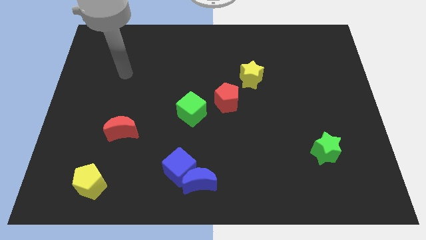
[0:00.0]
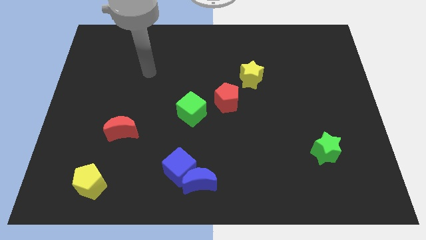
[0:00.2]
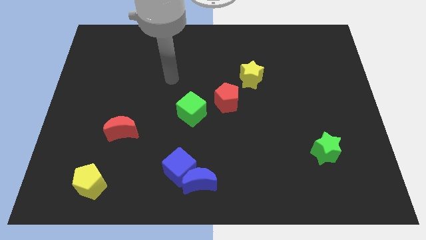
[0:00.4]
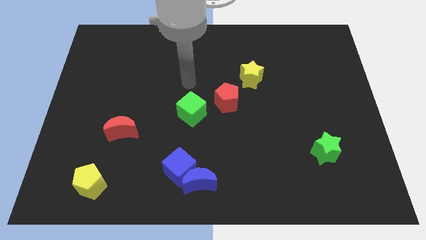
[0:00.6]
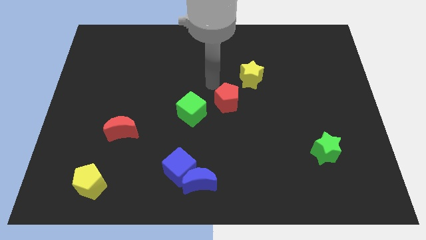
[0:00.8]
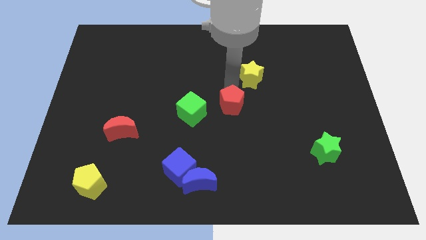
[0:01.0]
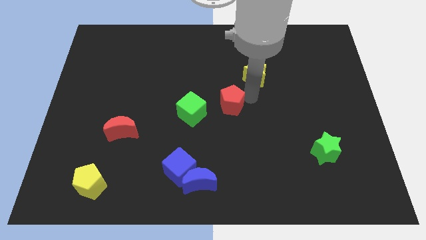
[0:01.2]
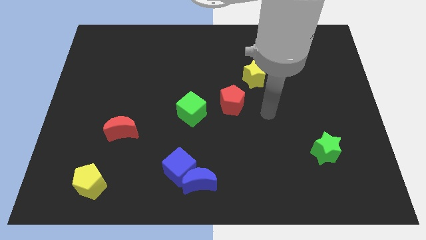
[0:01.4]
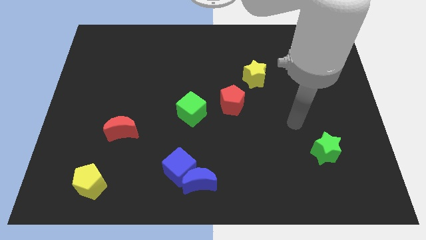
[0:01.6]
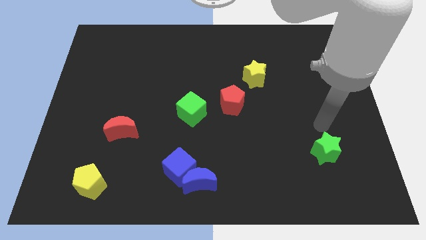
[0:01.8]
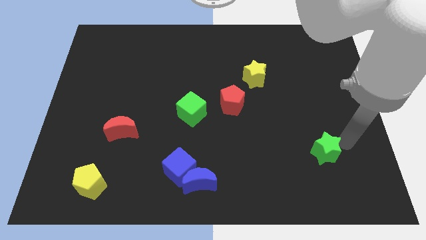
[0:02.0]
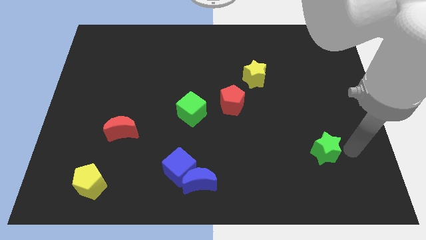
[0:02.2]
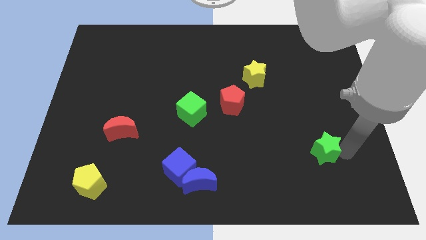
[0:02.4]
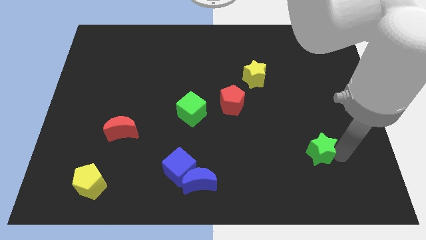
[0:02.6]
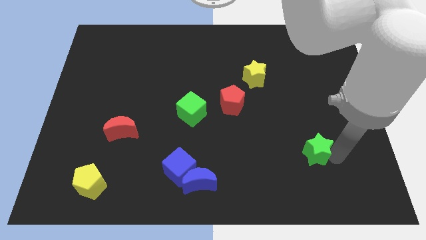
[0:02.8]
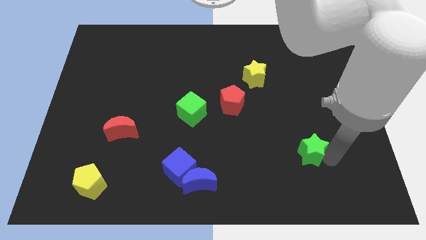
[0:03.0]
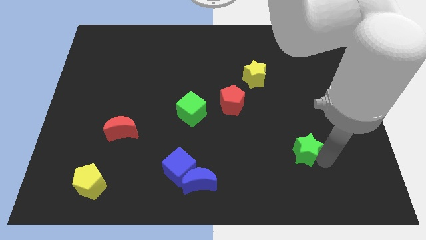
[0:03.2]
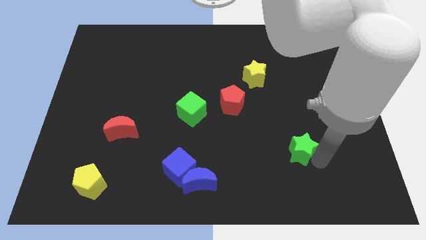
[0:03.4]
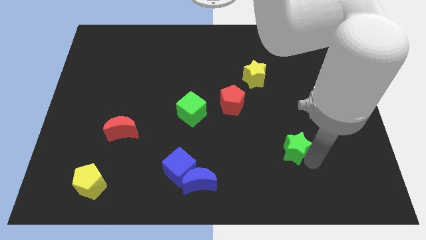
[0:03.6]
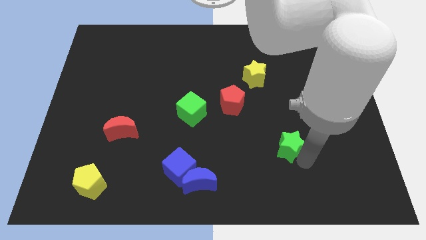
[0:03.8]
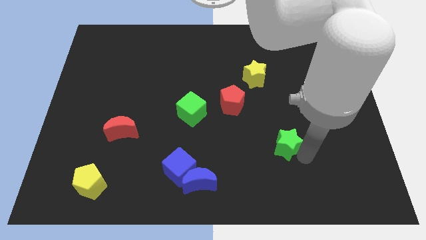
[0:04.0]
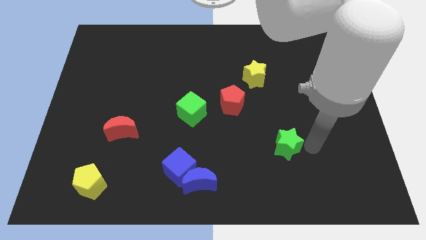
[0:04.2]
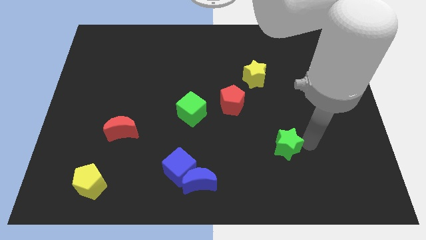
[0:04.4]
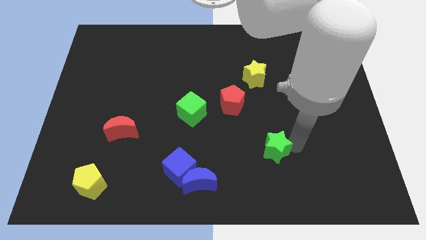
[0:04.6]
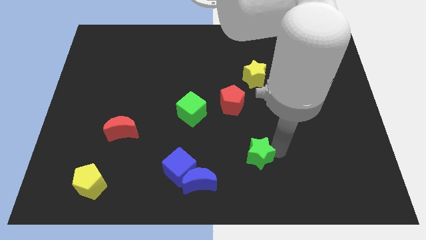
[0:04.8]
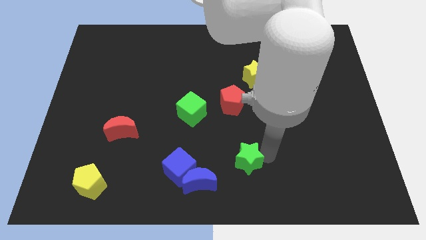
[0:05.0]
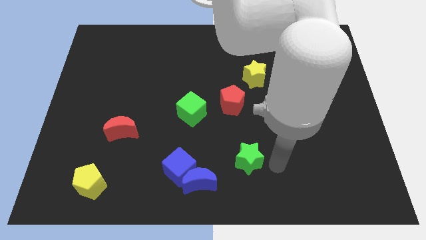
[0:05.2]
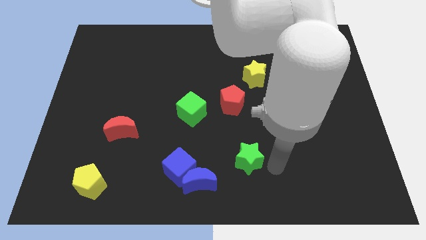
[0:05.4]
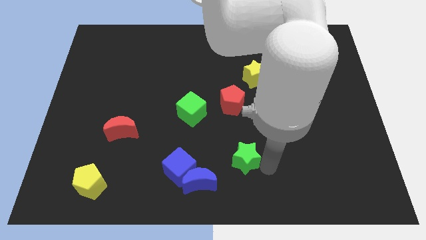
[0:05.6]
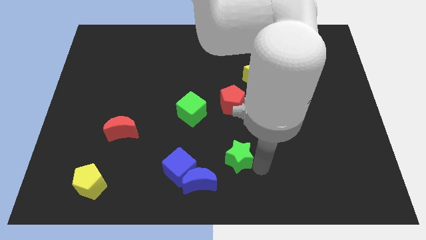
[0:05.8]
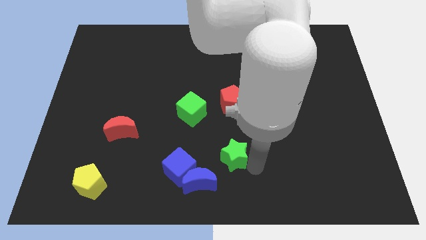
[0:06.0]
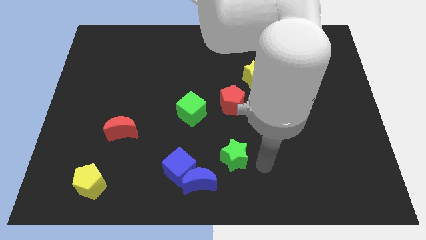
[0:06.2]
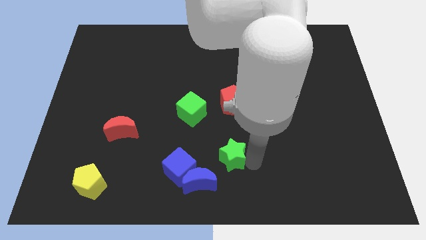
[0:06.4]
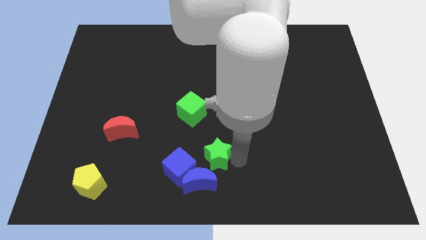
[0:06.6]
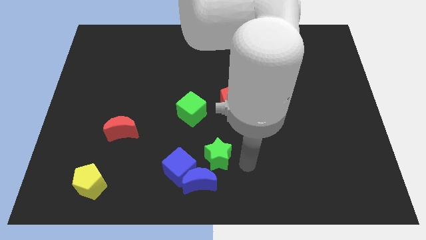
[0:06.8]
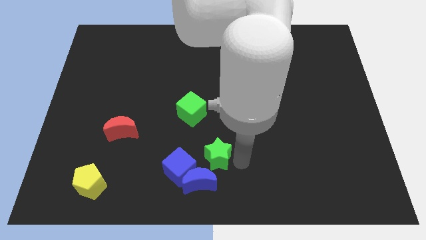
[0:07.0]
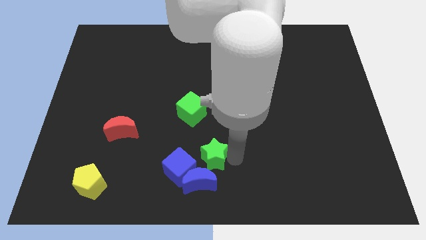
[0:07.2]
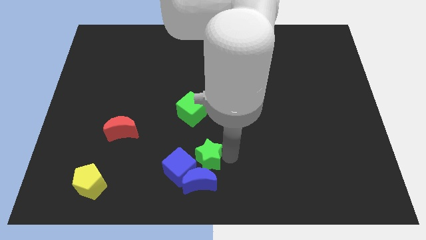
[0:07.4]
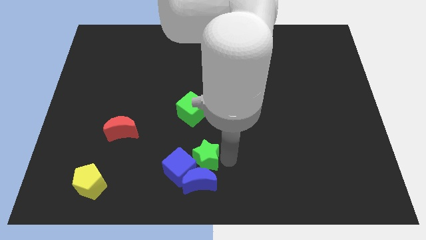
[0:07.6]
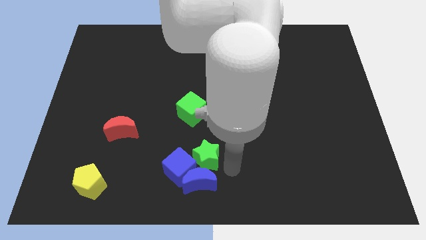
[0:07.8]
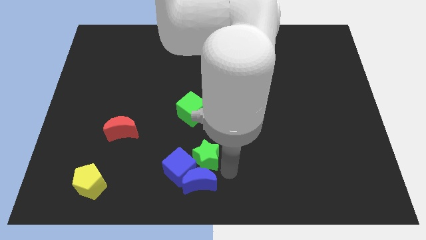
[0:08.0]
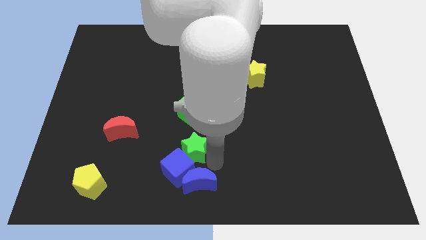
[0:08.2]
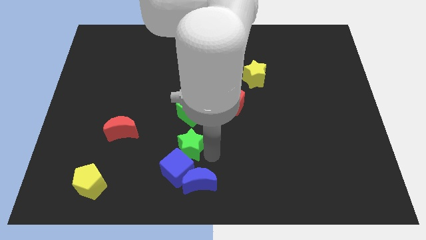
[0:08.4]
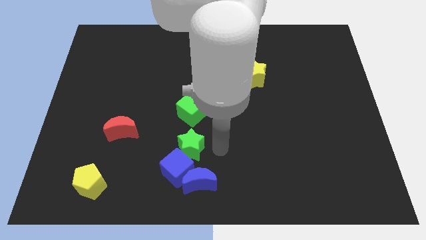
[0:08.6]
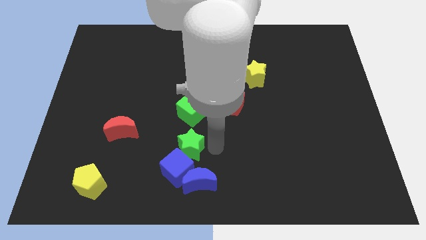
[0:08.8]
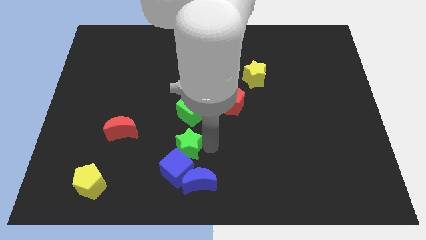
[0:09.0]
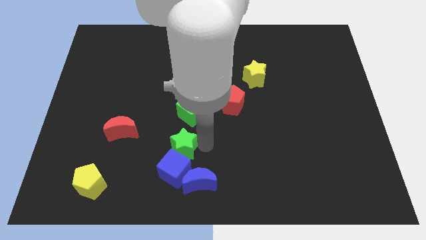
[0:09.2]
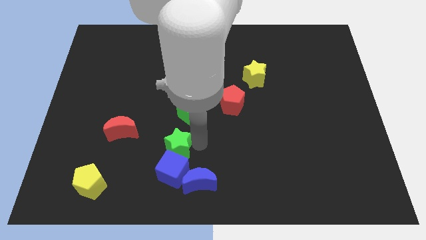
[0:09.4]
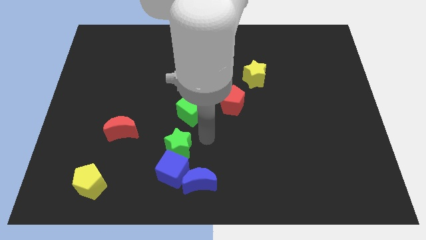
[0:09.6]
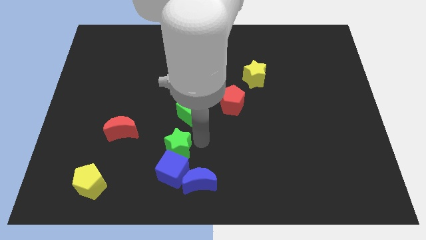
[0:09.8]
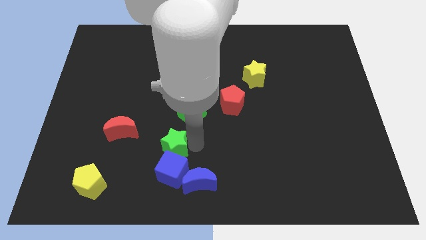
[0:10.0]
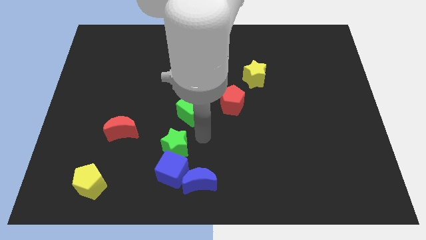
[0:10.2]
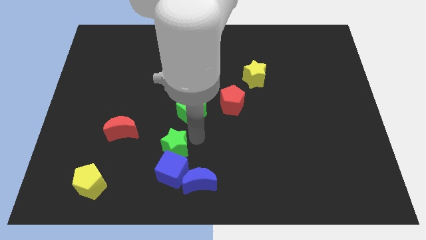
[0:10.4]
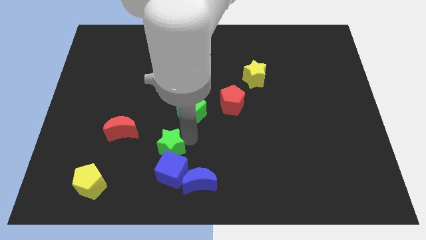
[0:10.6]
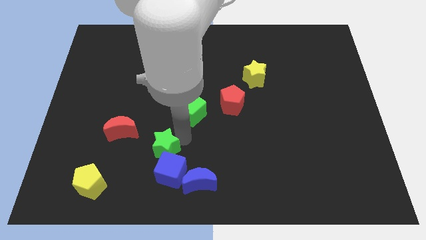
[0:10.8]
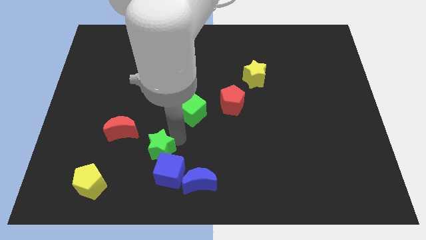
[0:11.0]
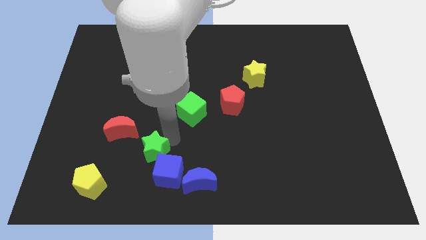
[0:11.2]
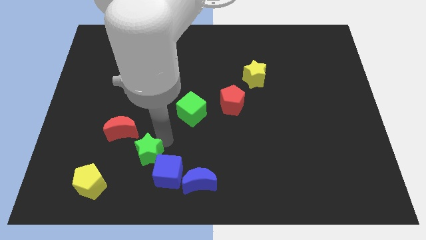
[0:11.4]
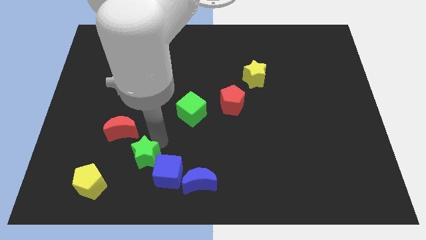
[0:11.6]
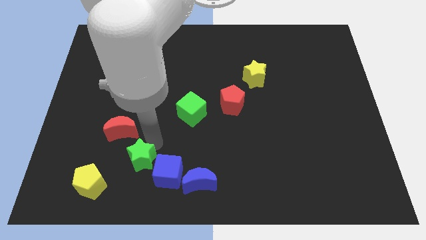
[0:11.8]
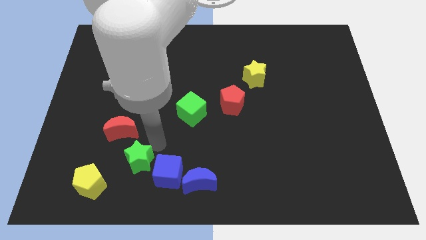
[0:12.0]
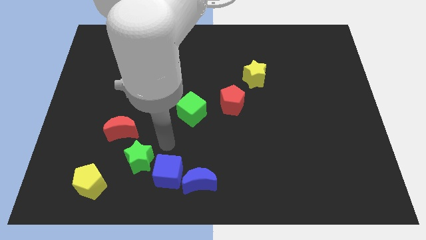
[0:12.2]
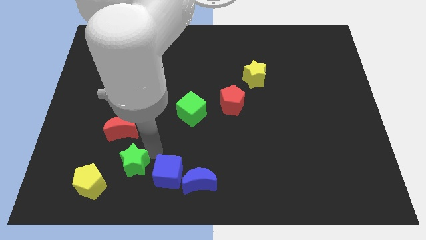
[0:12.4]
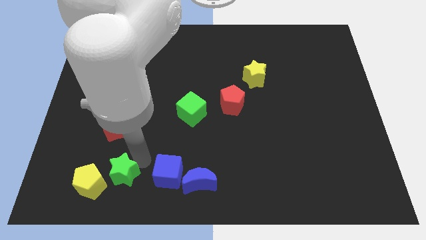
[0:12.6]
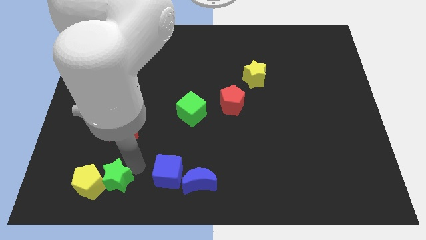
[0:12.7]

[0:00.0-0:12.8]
push the green star close to the yellow pentagon

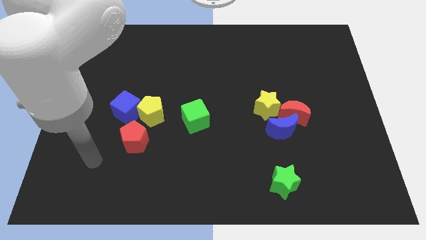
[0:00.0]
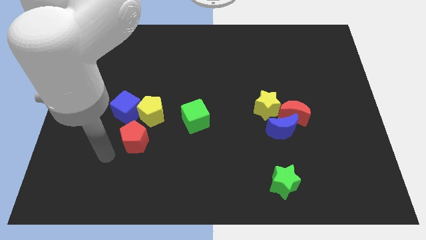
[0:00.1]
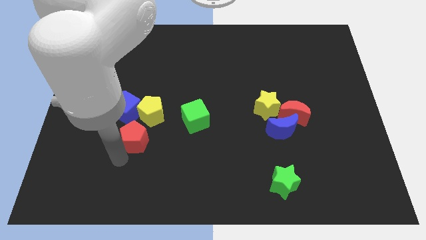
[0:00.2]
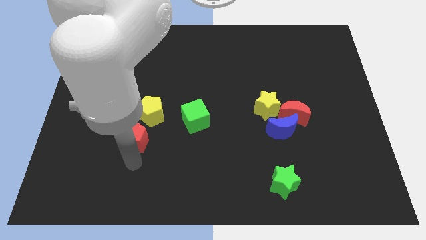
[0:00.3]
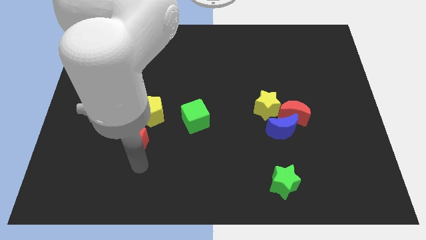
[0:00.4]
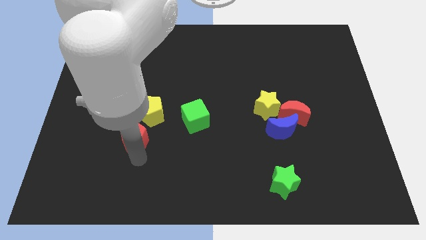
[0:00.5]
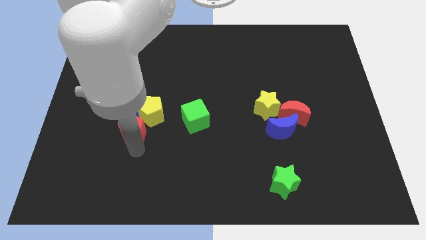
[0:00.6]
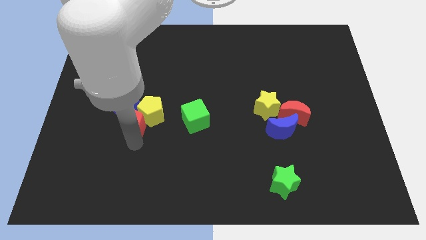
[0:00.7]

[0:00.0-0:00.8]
slide the red pentagon next to the blue cube
